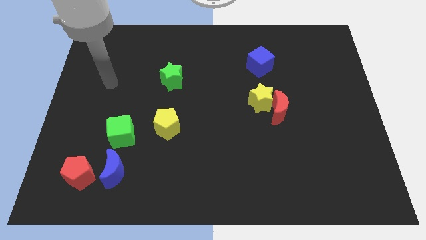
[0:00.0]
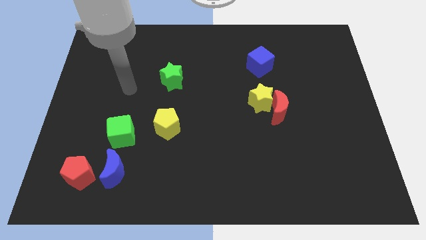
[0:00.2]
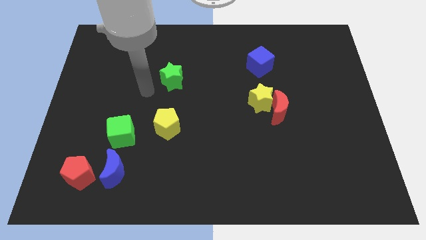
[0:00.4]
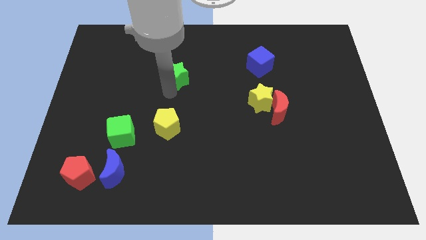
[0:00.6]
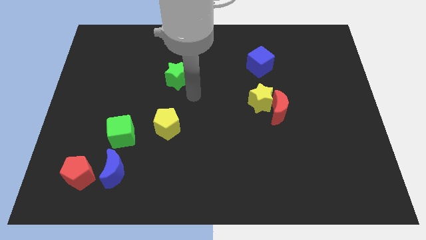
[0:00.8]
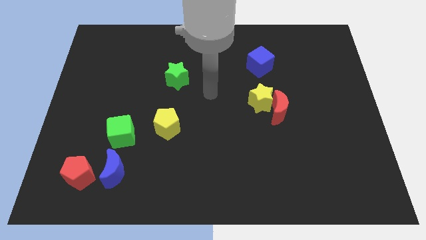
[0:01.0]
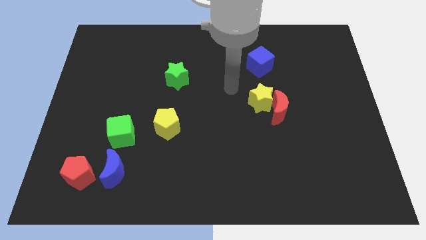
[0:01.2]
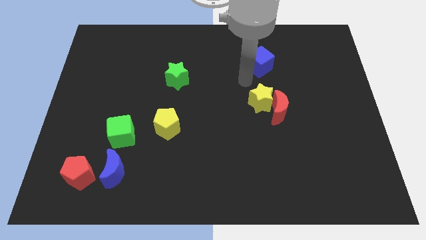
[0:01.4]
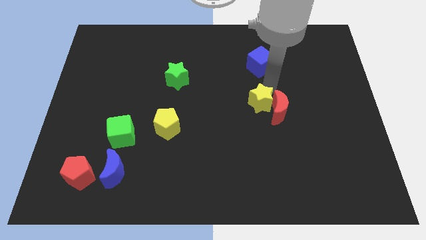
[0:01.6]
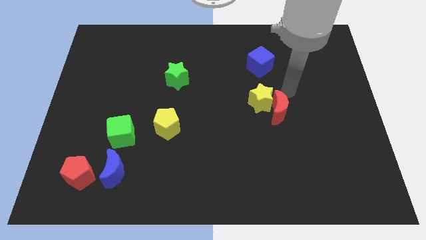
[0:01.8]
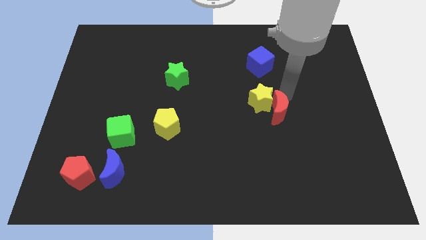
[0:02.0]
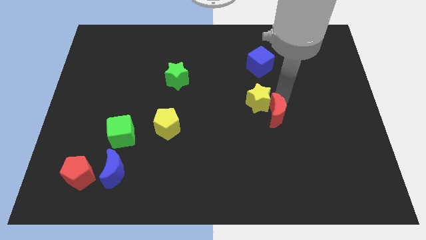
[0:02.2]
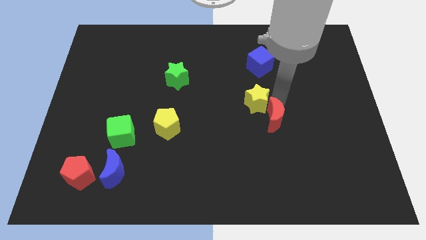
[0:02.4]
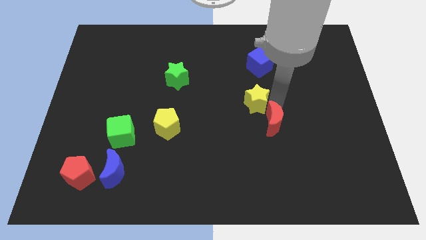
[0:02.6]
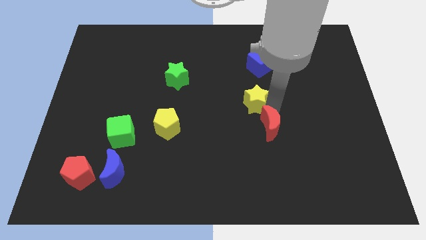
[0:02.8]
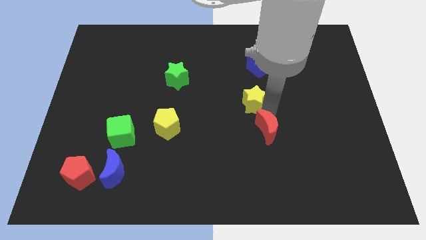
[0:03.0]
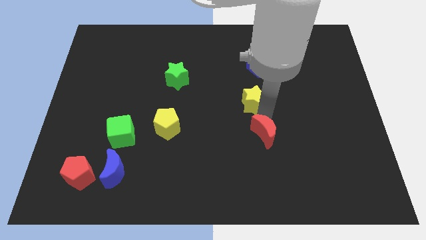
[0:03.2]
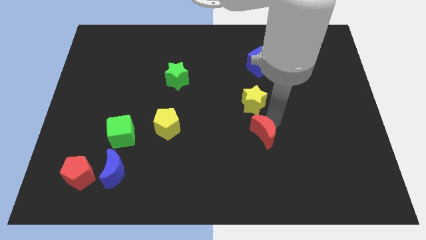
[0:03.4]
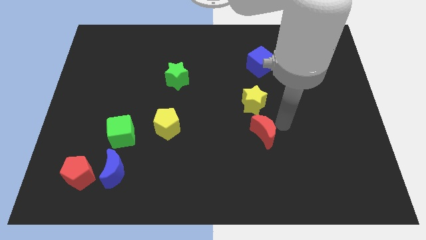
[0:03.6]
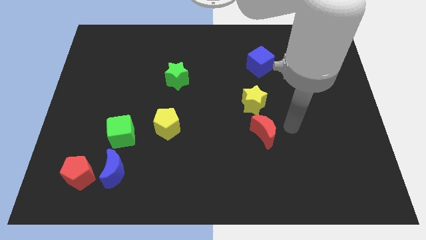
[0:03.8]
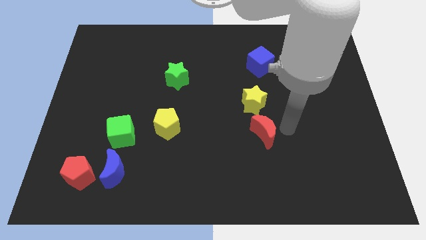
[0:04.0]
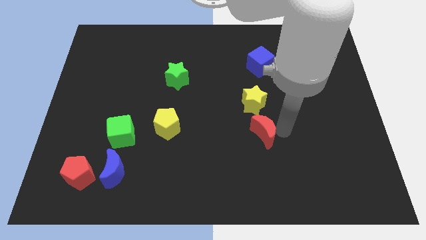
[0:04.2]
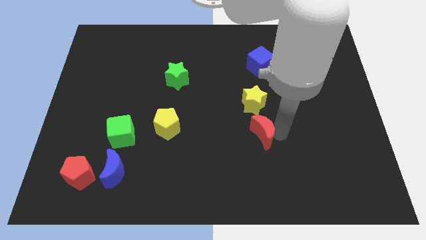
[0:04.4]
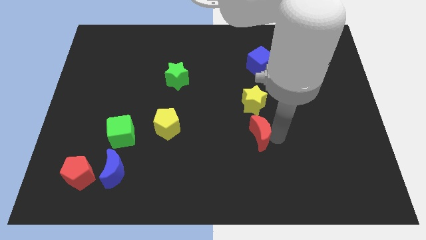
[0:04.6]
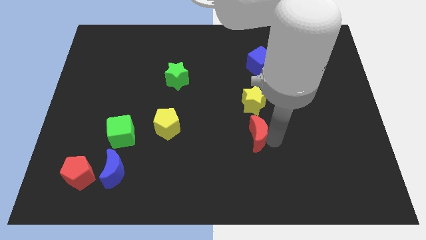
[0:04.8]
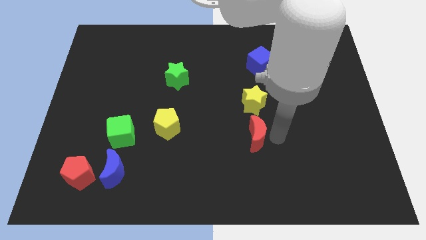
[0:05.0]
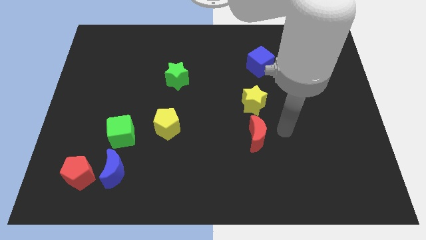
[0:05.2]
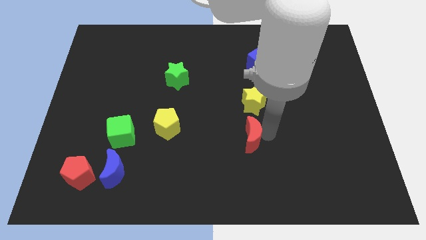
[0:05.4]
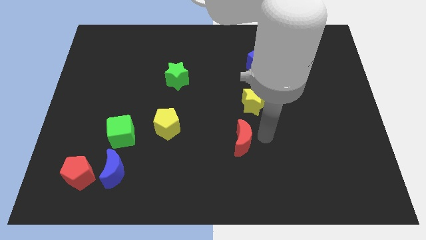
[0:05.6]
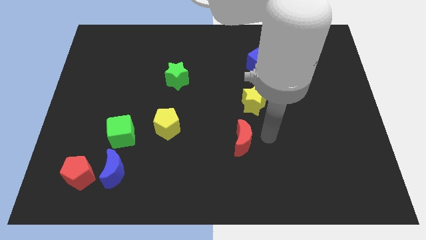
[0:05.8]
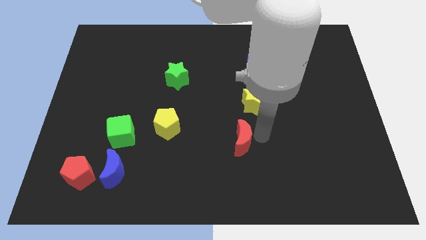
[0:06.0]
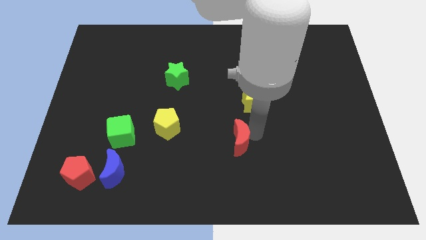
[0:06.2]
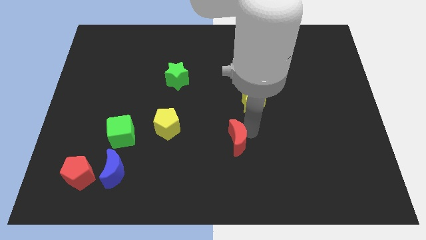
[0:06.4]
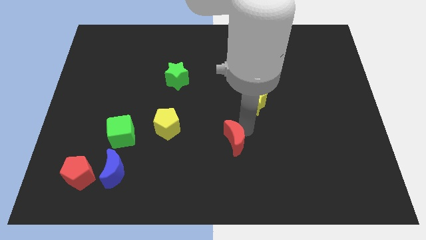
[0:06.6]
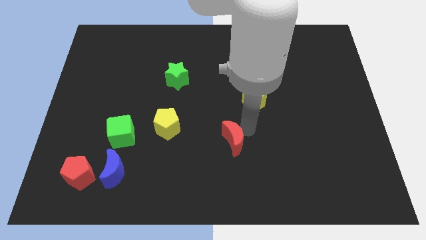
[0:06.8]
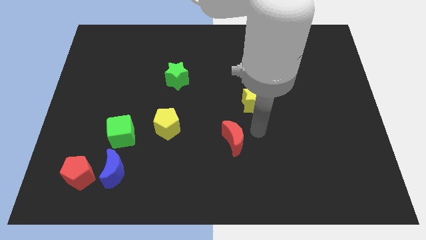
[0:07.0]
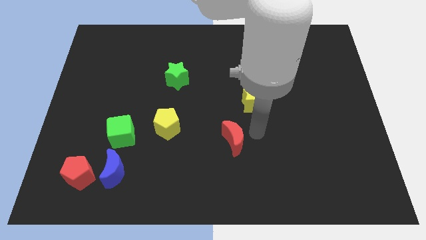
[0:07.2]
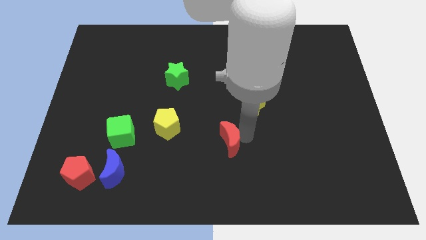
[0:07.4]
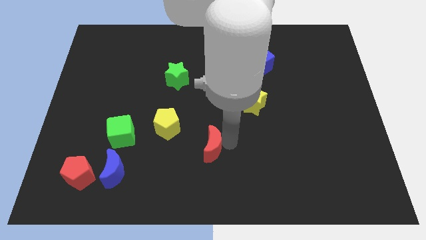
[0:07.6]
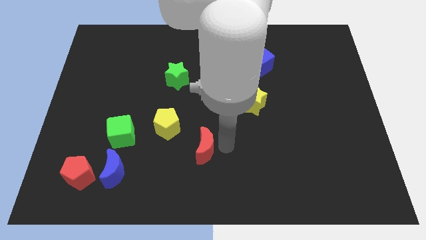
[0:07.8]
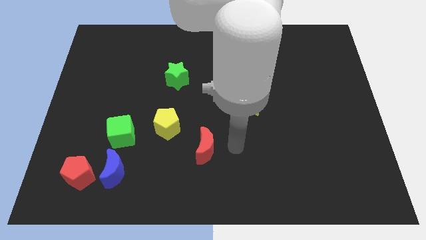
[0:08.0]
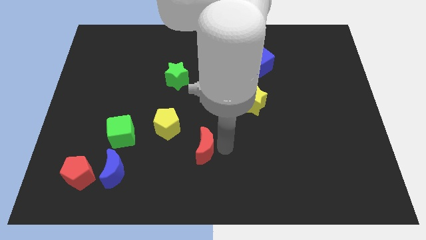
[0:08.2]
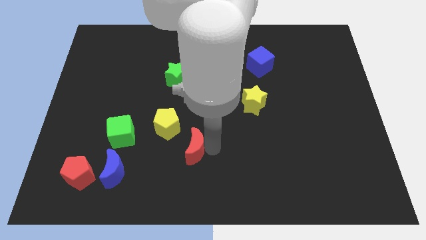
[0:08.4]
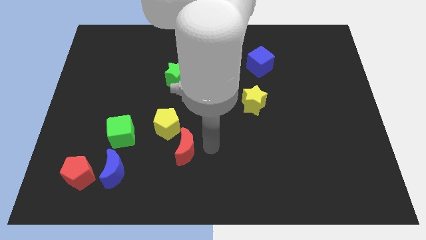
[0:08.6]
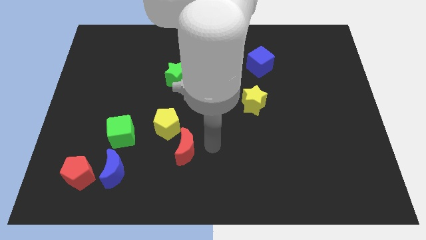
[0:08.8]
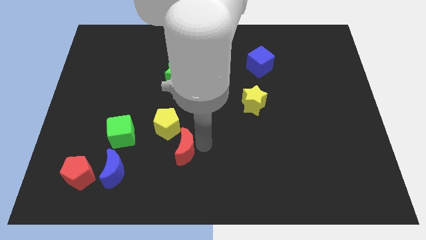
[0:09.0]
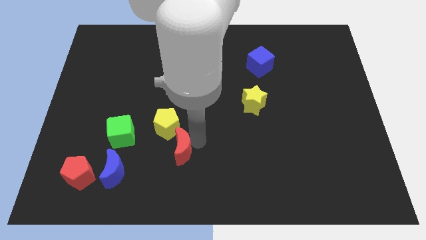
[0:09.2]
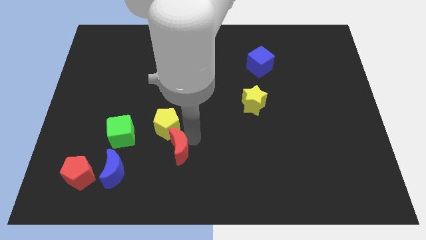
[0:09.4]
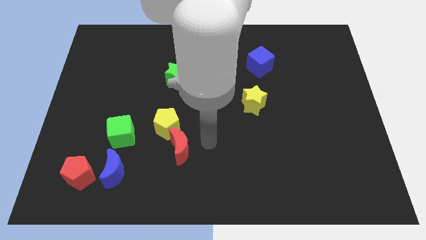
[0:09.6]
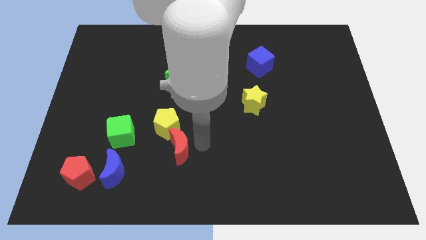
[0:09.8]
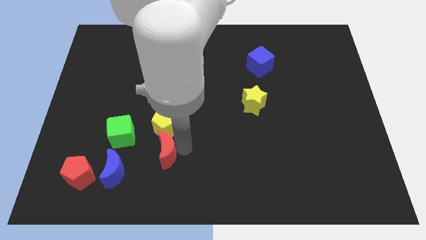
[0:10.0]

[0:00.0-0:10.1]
put the red moon to the bottom right side of the green cube

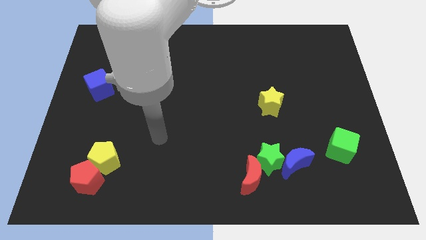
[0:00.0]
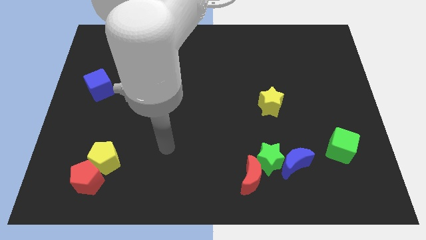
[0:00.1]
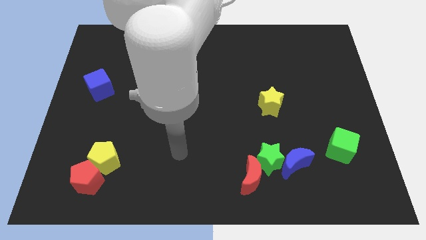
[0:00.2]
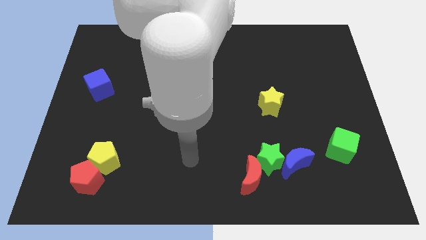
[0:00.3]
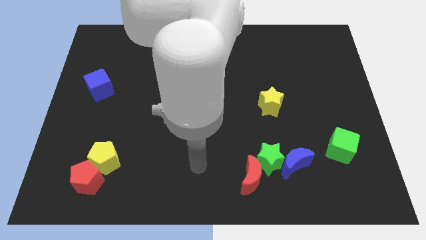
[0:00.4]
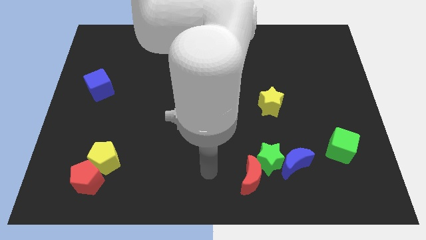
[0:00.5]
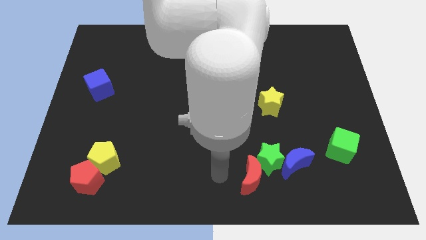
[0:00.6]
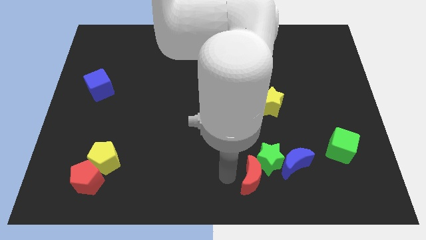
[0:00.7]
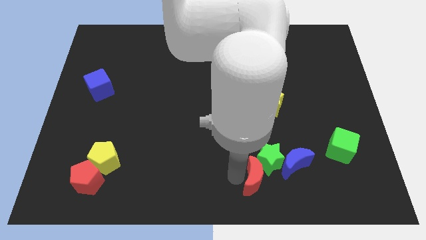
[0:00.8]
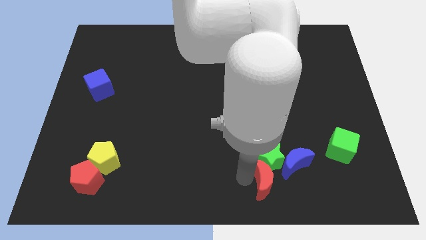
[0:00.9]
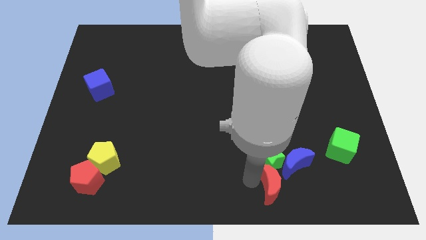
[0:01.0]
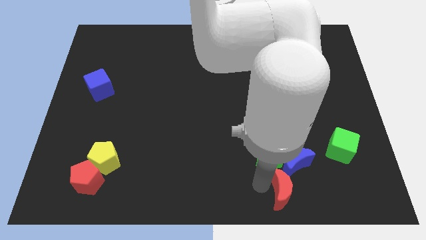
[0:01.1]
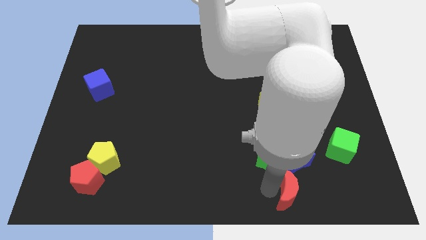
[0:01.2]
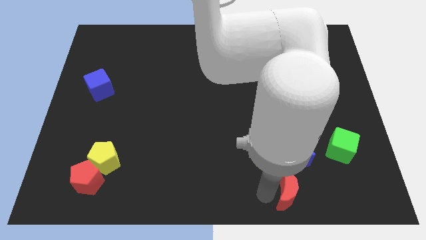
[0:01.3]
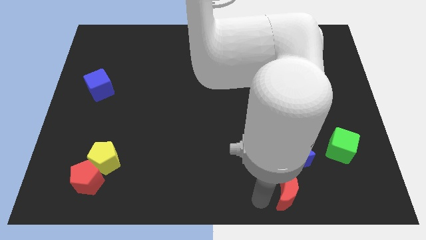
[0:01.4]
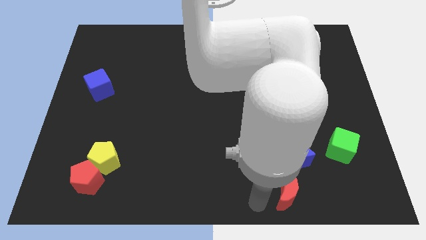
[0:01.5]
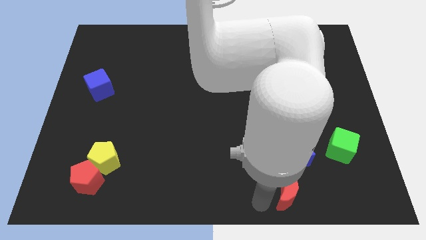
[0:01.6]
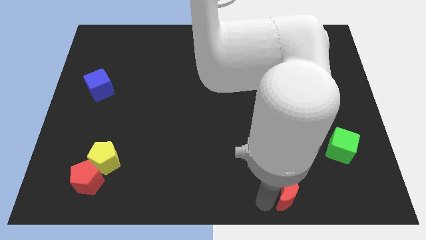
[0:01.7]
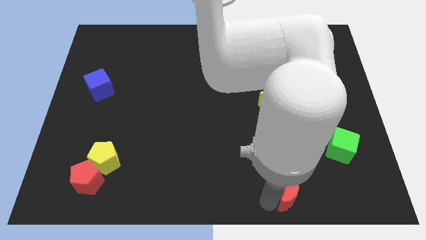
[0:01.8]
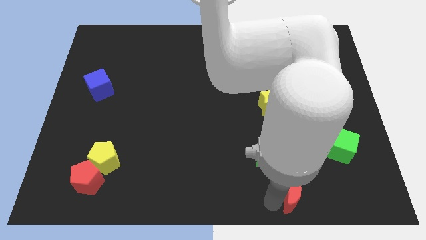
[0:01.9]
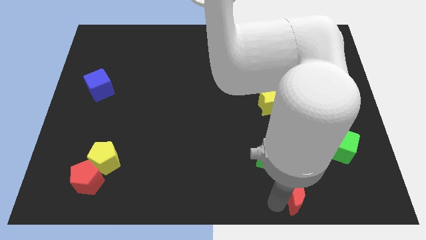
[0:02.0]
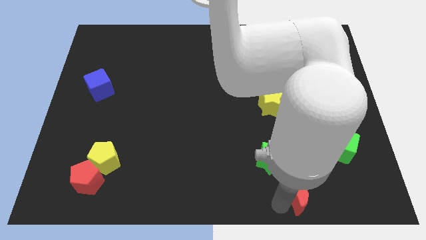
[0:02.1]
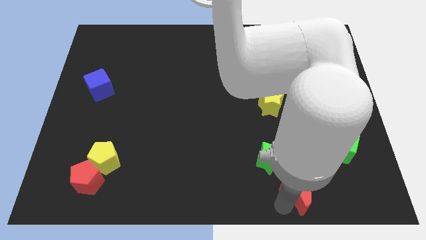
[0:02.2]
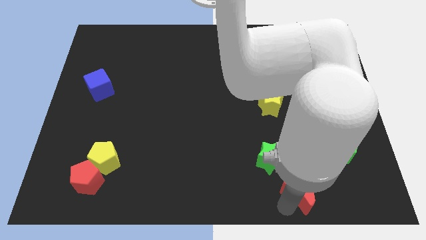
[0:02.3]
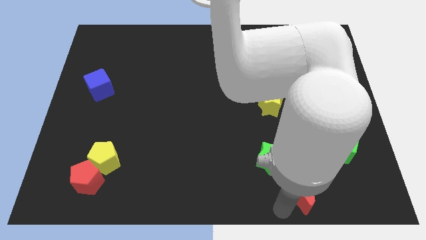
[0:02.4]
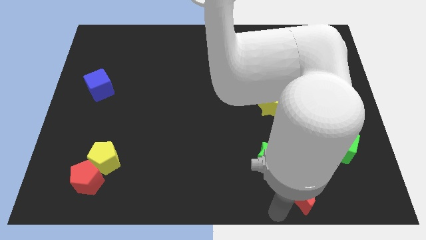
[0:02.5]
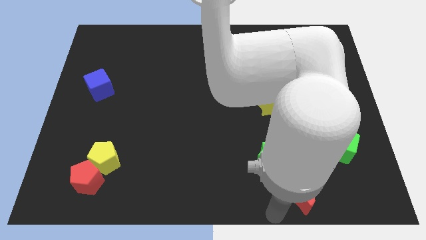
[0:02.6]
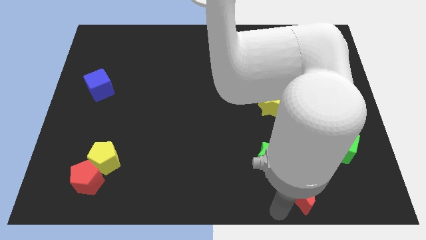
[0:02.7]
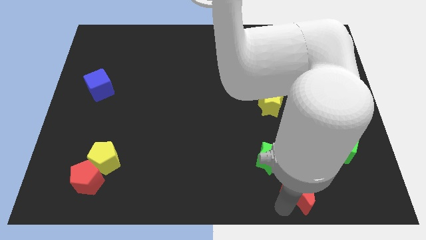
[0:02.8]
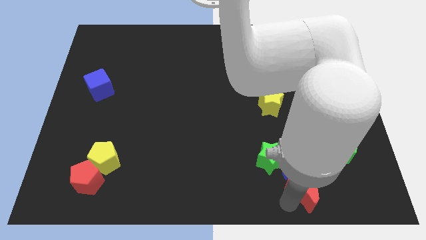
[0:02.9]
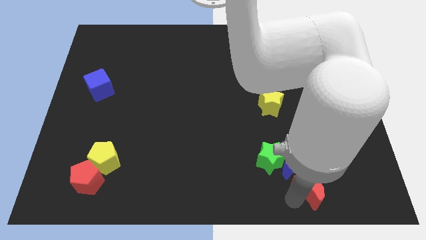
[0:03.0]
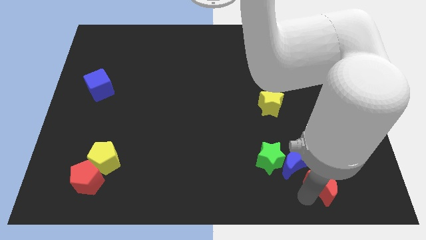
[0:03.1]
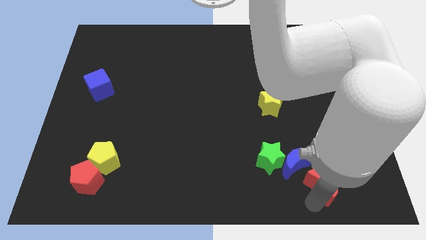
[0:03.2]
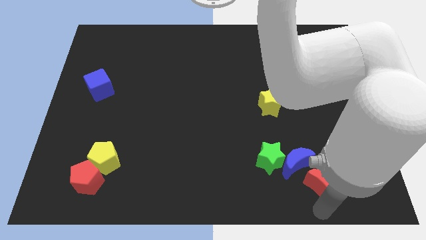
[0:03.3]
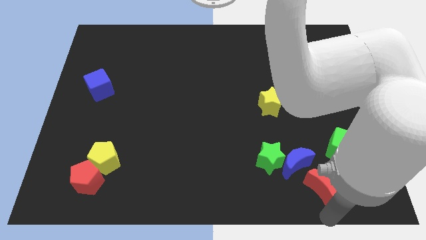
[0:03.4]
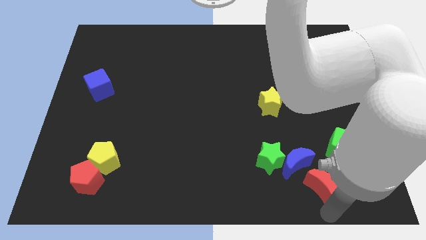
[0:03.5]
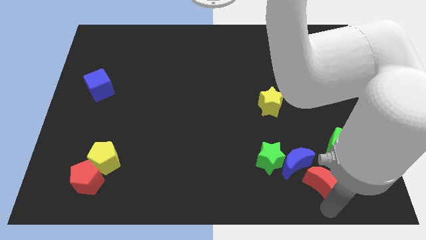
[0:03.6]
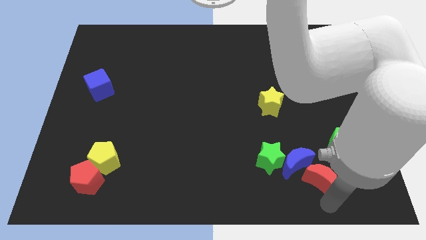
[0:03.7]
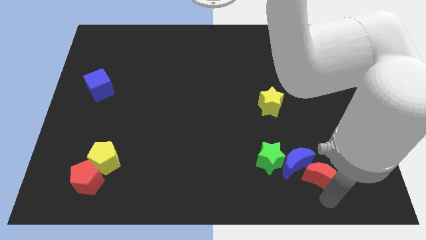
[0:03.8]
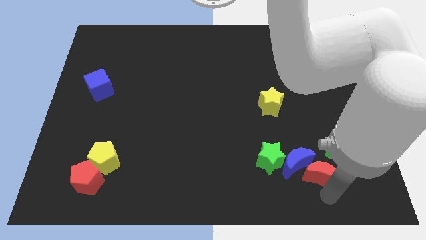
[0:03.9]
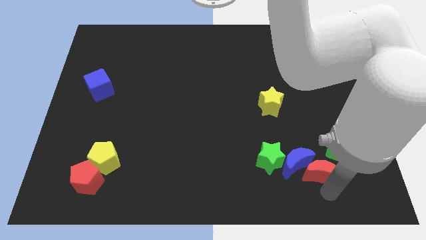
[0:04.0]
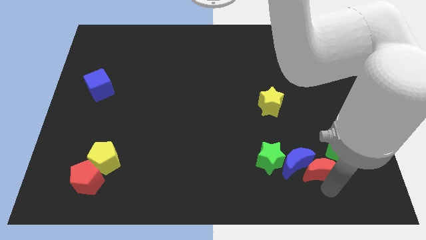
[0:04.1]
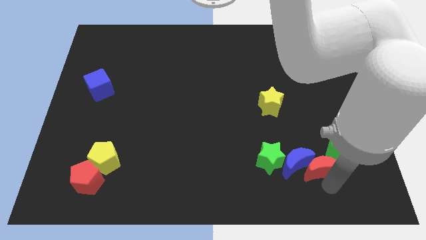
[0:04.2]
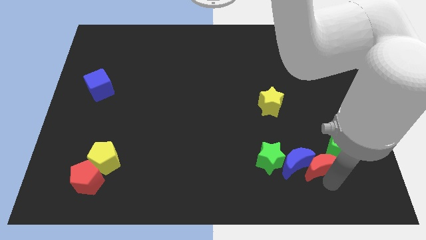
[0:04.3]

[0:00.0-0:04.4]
slide the red moon left of the green cube
